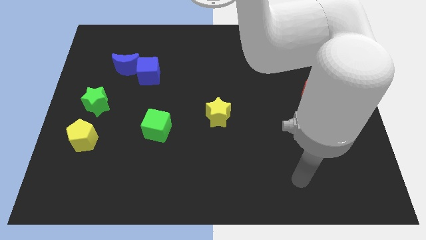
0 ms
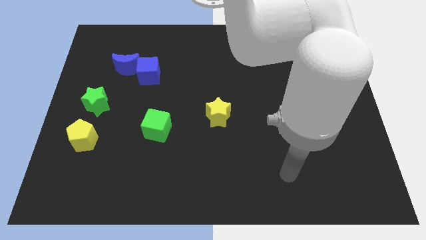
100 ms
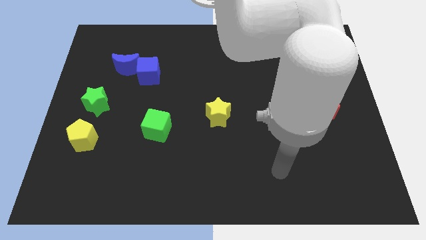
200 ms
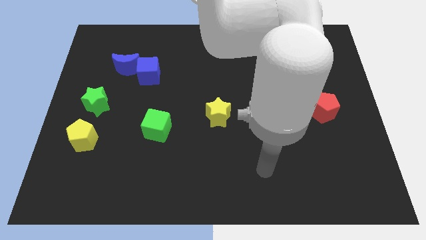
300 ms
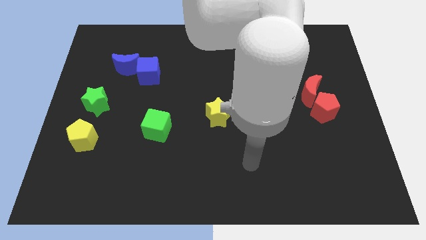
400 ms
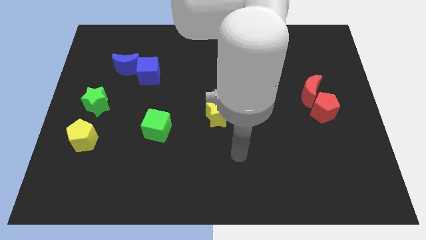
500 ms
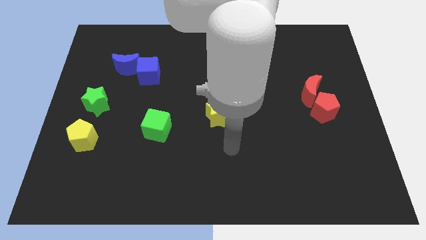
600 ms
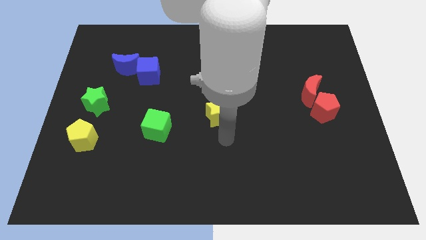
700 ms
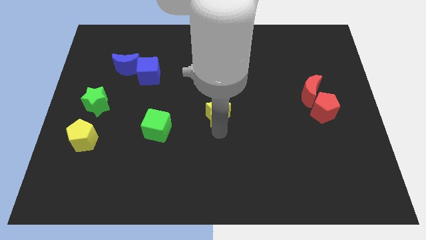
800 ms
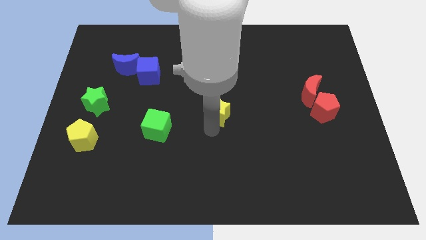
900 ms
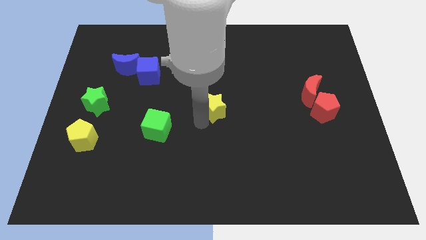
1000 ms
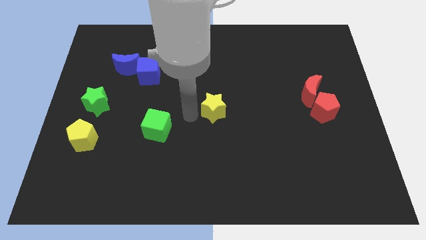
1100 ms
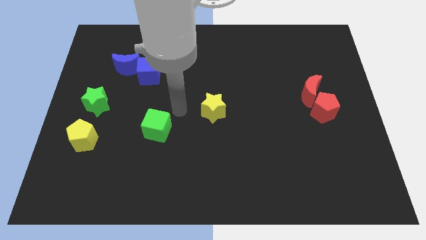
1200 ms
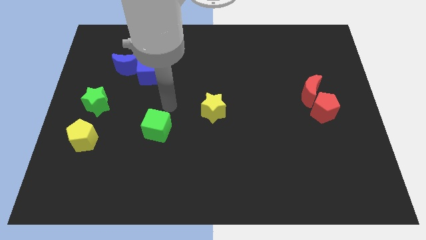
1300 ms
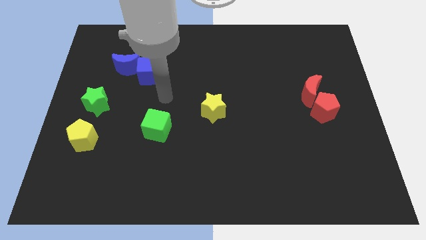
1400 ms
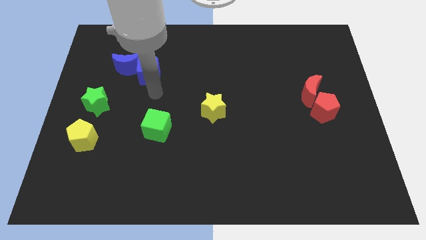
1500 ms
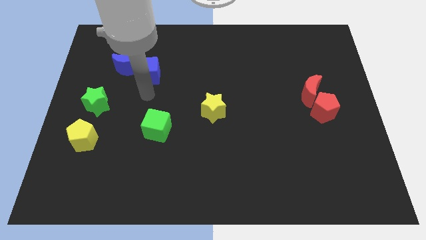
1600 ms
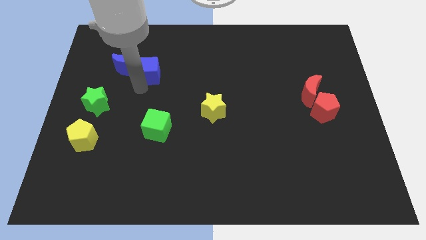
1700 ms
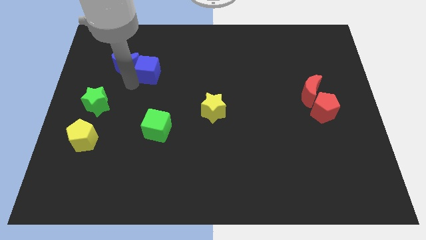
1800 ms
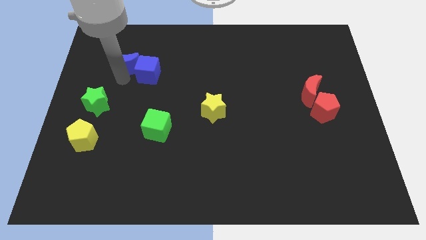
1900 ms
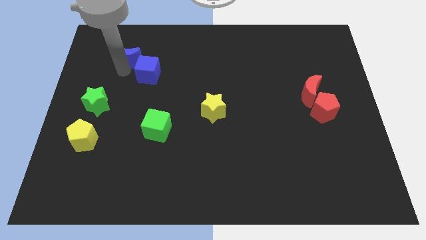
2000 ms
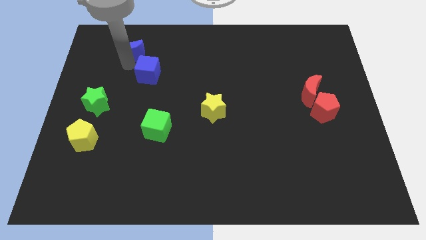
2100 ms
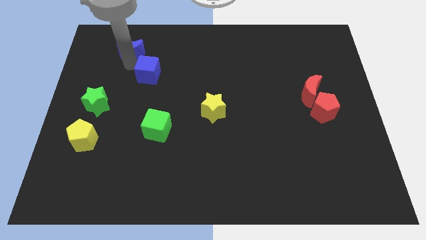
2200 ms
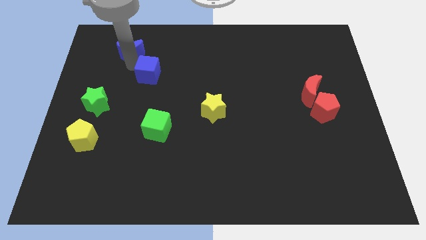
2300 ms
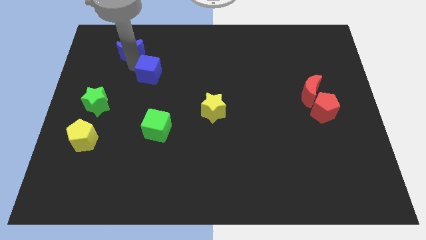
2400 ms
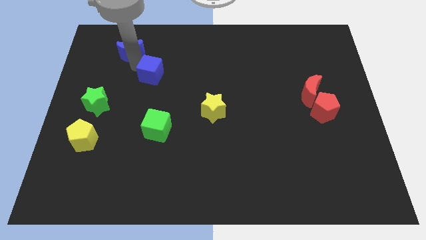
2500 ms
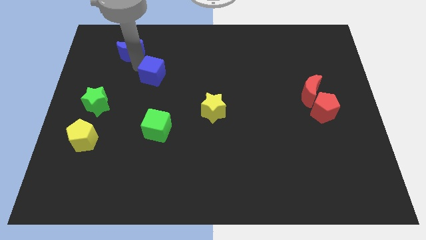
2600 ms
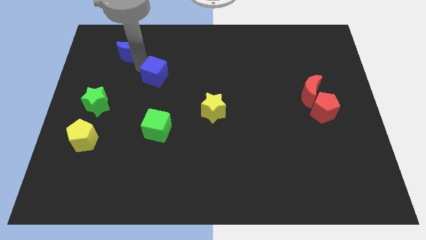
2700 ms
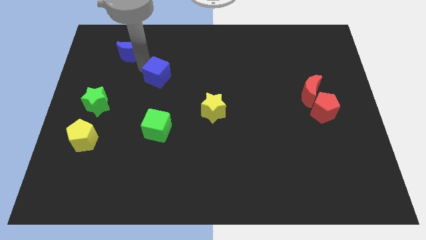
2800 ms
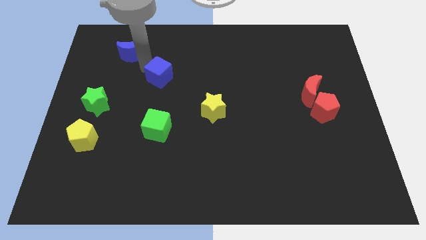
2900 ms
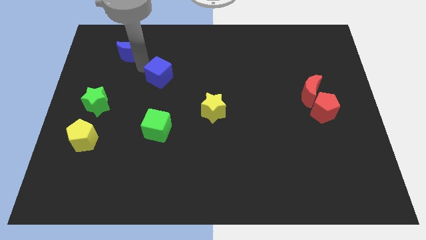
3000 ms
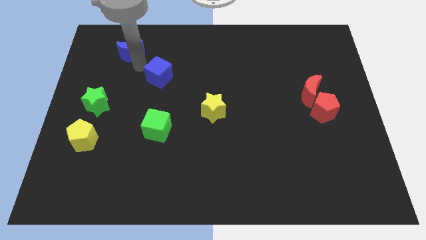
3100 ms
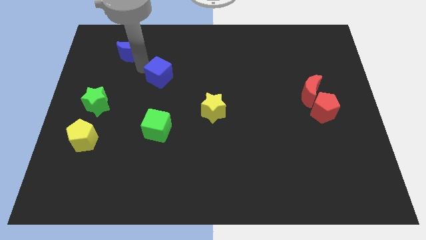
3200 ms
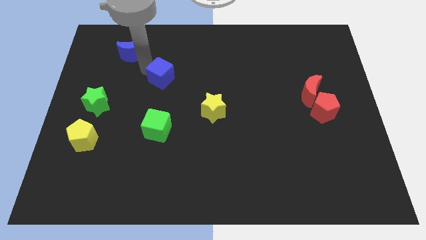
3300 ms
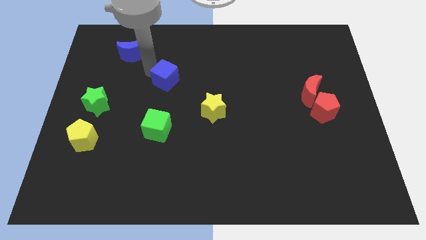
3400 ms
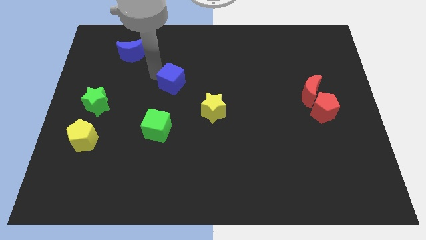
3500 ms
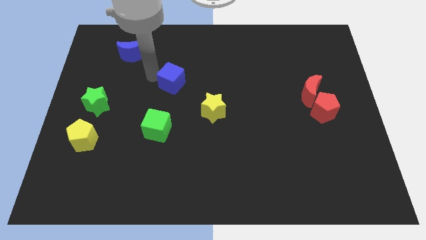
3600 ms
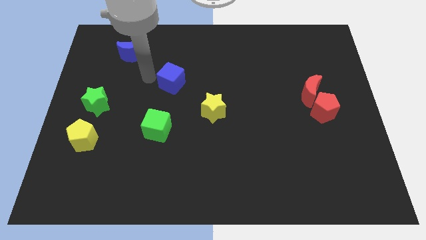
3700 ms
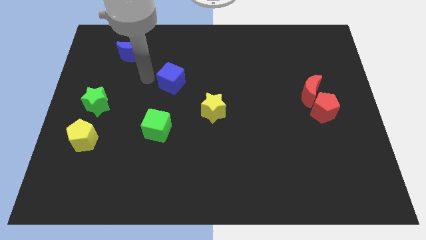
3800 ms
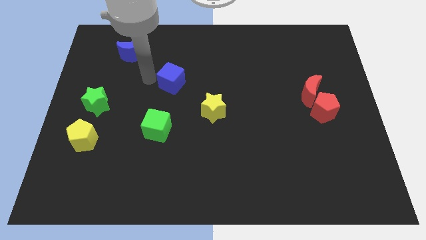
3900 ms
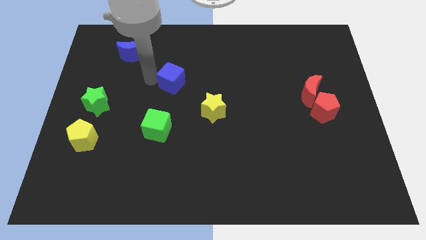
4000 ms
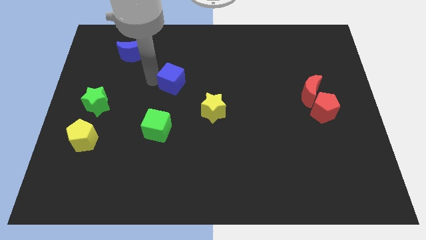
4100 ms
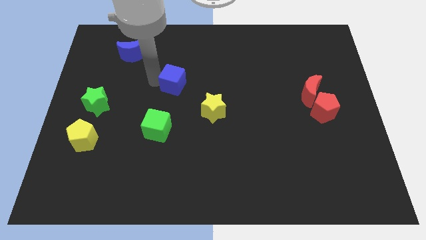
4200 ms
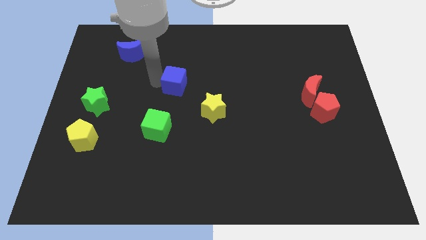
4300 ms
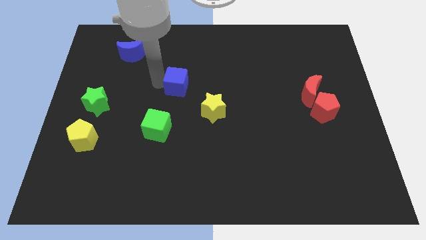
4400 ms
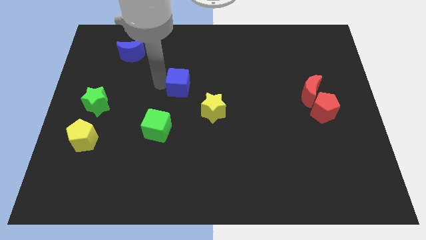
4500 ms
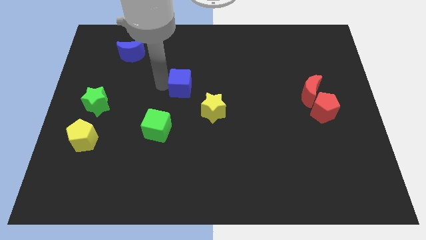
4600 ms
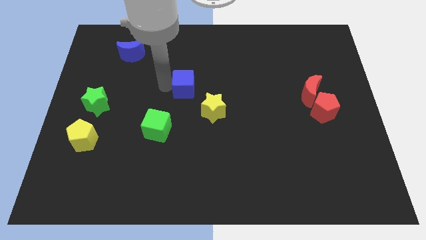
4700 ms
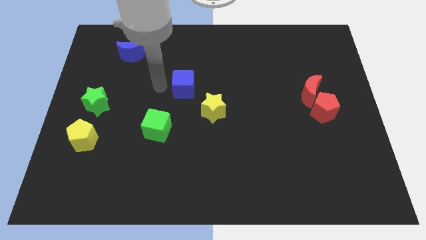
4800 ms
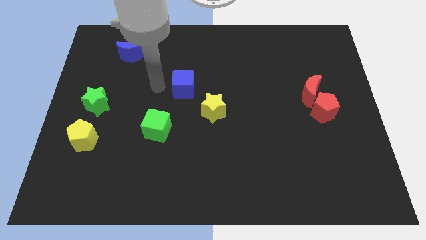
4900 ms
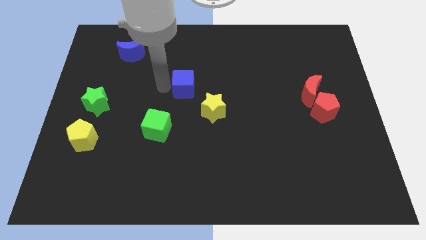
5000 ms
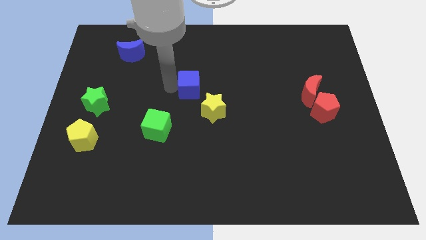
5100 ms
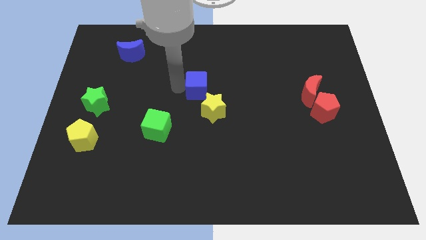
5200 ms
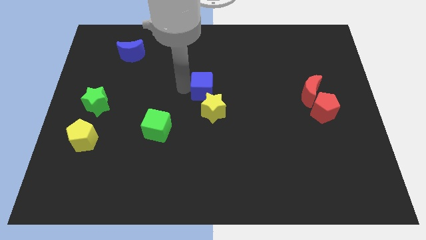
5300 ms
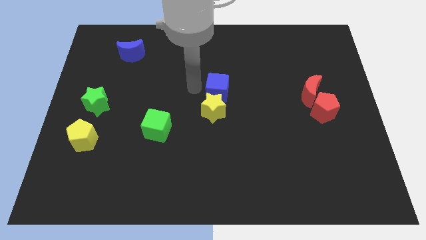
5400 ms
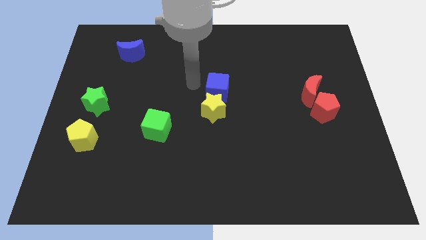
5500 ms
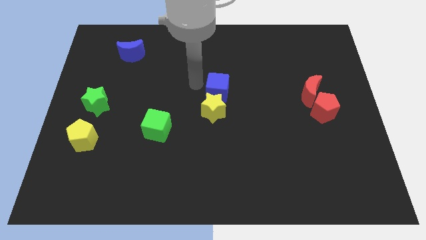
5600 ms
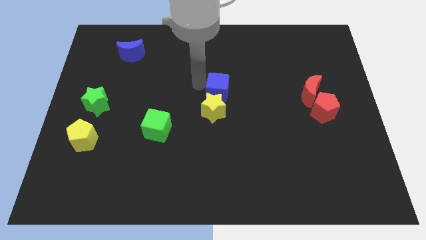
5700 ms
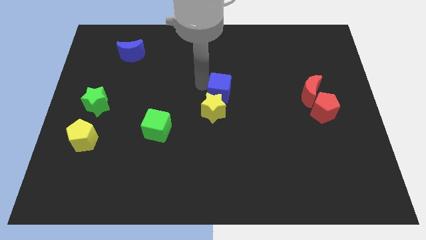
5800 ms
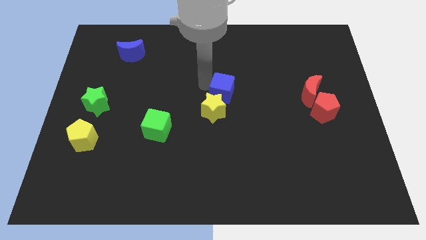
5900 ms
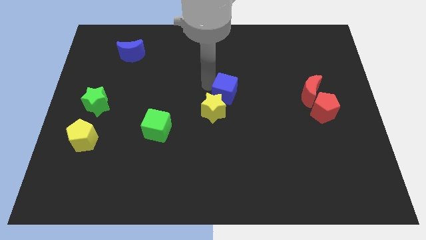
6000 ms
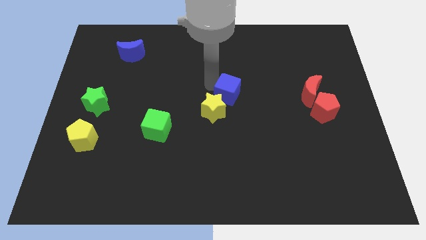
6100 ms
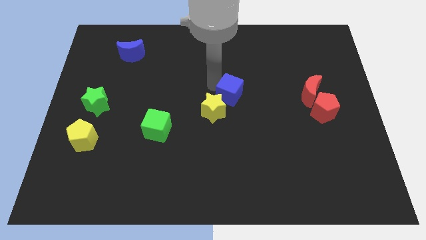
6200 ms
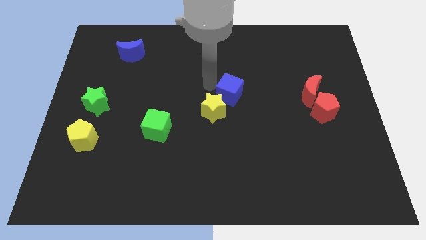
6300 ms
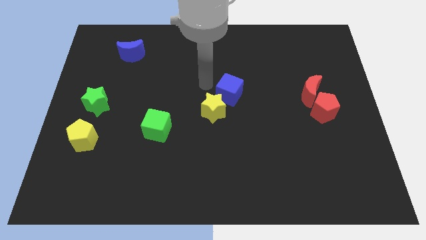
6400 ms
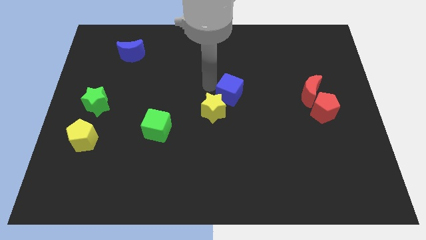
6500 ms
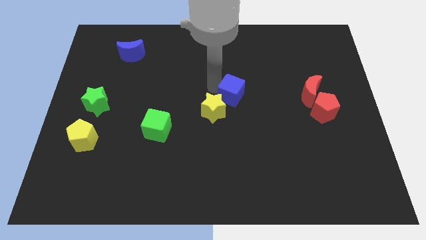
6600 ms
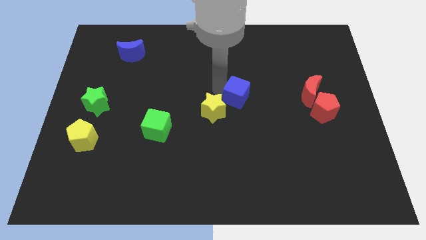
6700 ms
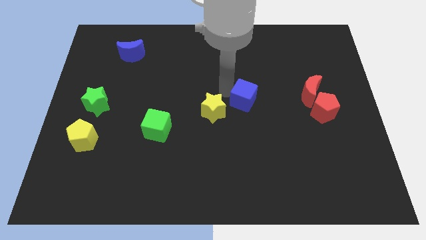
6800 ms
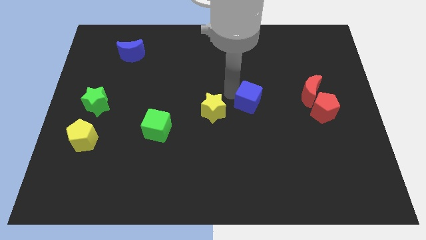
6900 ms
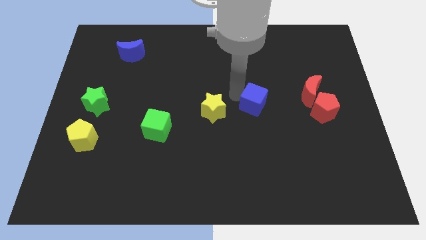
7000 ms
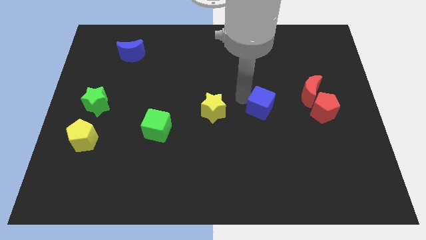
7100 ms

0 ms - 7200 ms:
push the blue cube just left of the red pentagon
